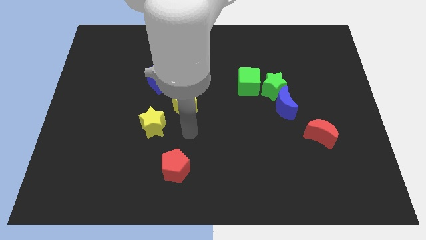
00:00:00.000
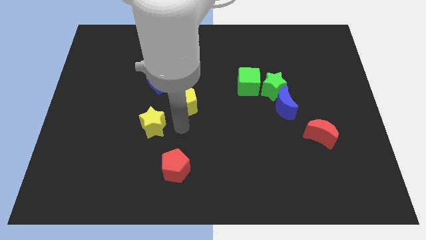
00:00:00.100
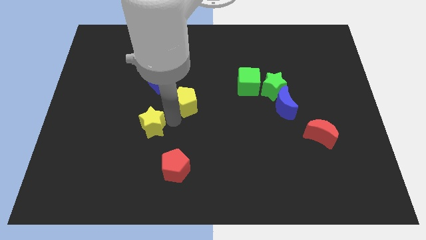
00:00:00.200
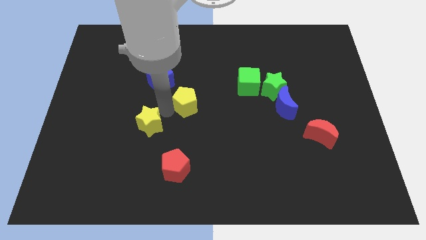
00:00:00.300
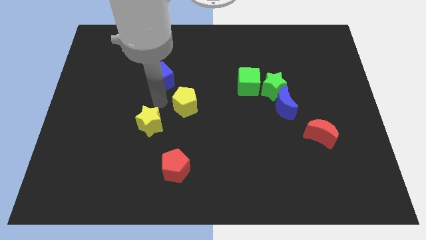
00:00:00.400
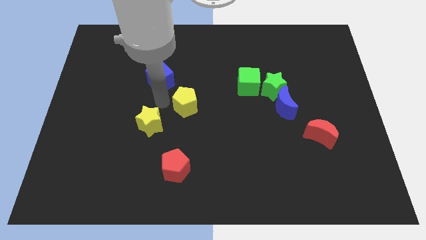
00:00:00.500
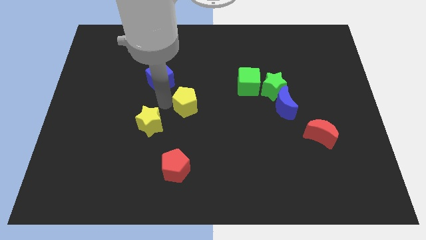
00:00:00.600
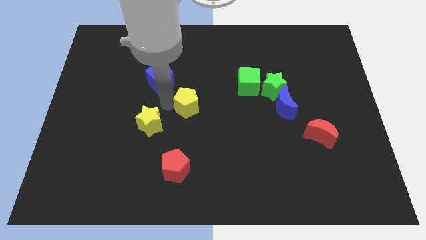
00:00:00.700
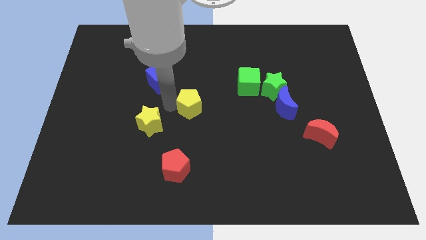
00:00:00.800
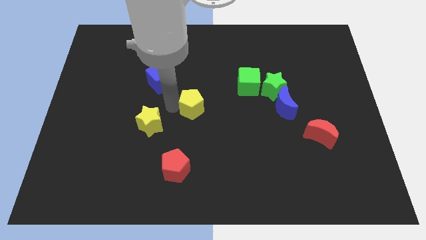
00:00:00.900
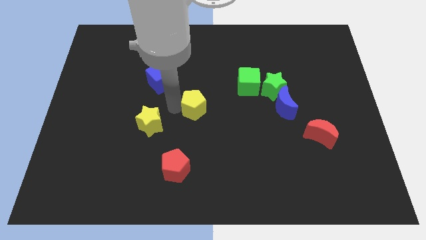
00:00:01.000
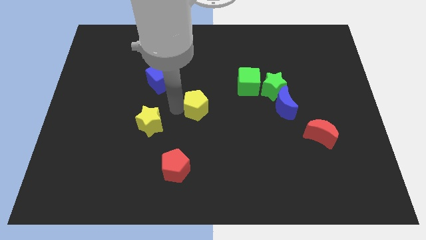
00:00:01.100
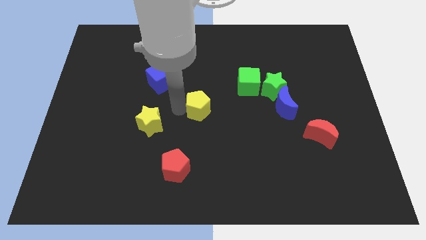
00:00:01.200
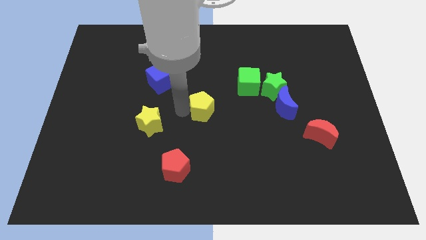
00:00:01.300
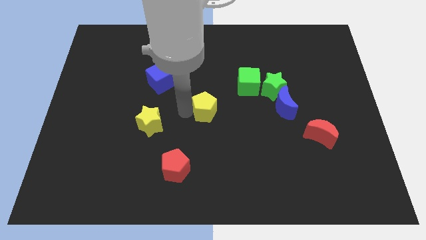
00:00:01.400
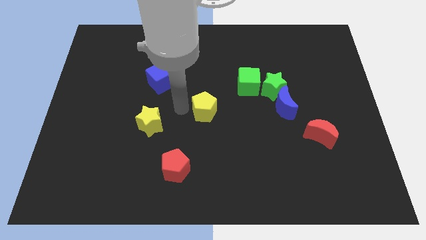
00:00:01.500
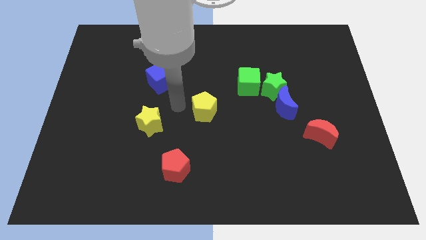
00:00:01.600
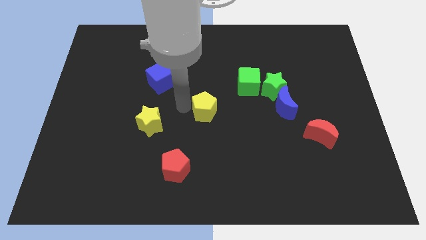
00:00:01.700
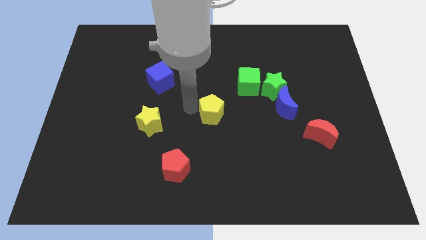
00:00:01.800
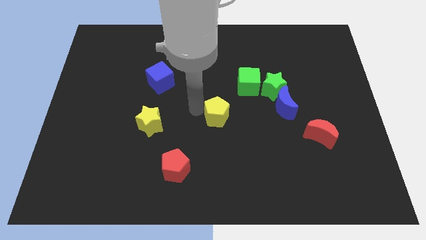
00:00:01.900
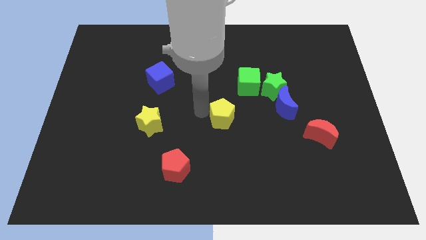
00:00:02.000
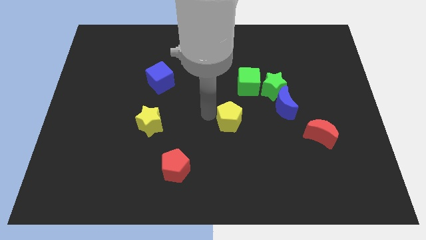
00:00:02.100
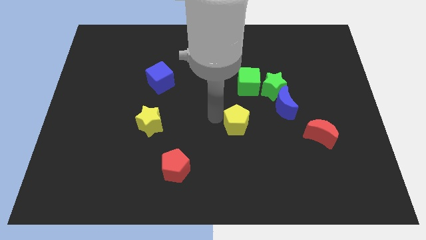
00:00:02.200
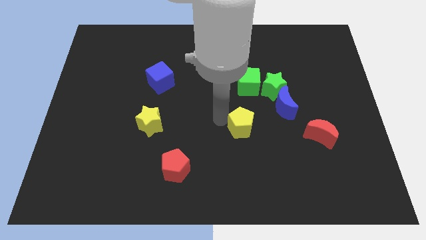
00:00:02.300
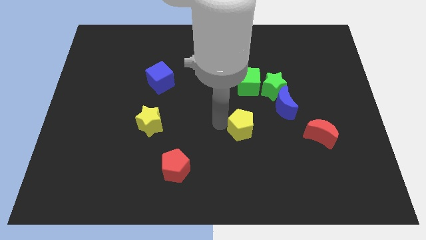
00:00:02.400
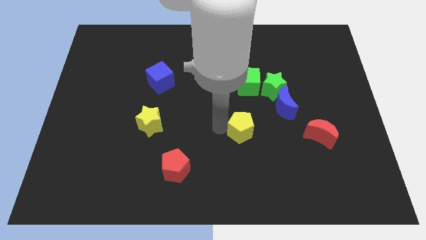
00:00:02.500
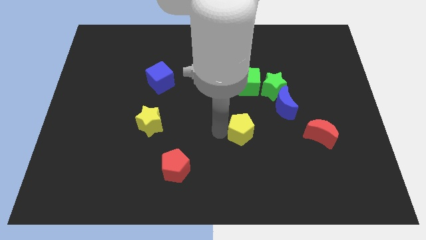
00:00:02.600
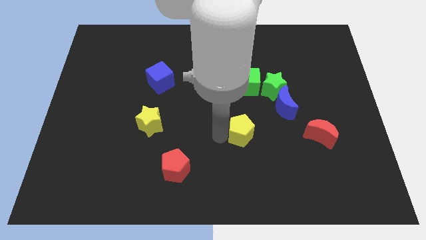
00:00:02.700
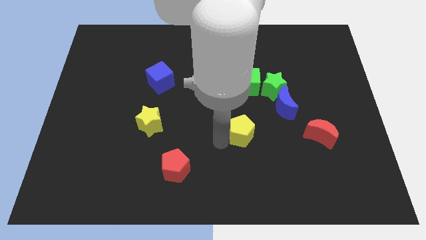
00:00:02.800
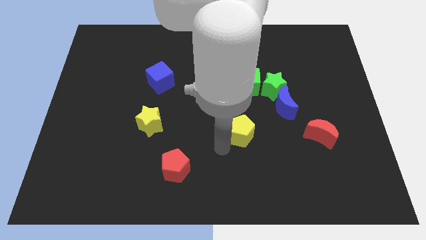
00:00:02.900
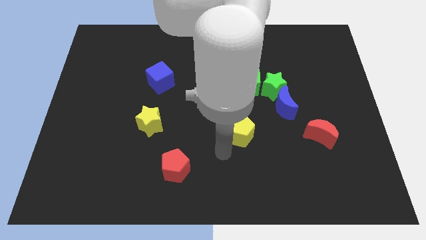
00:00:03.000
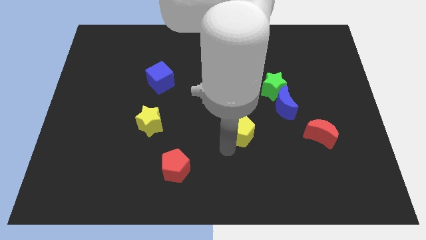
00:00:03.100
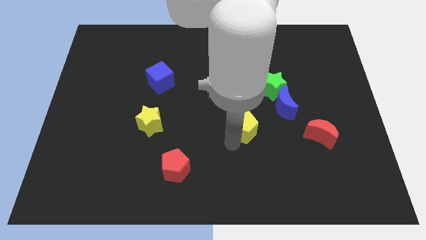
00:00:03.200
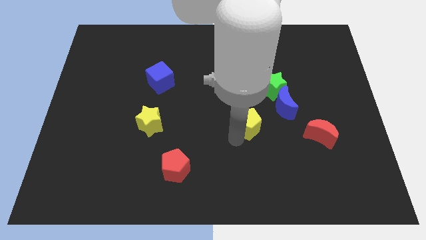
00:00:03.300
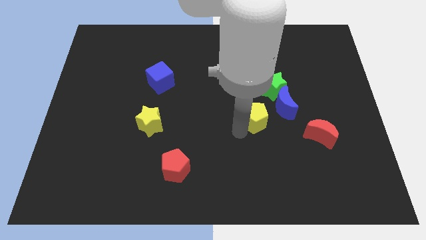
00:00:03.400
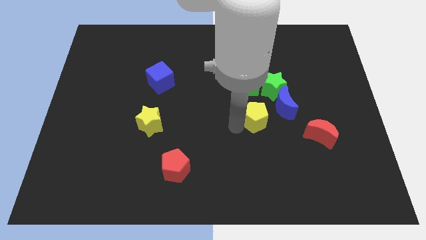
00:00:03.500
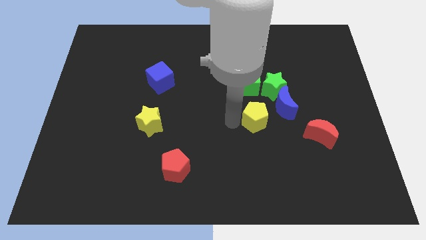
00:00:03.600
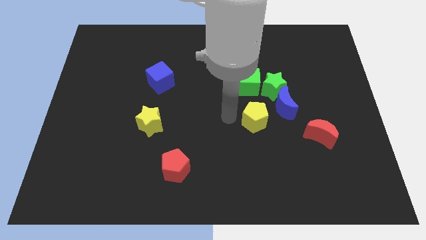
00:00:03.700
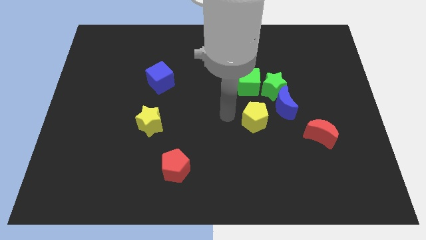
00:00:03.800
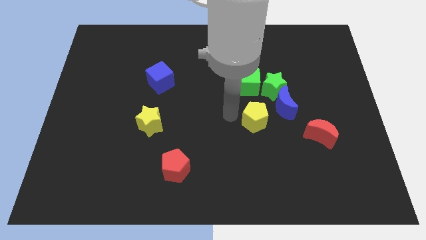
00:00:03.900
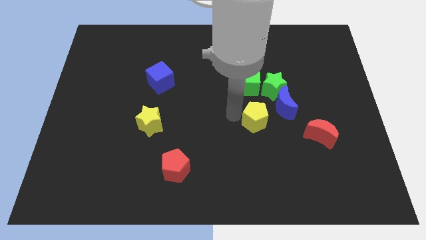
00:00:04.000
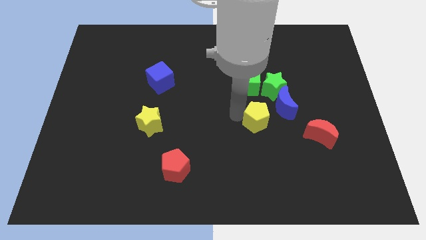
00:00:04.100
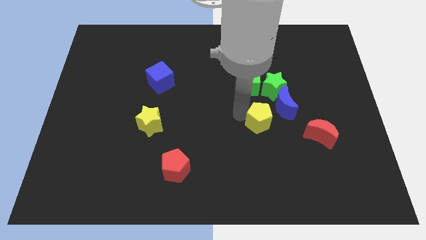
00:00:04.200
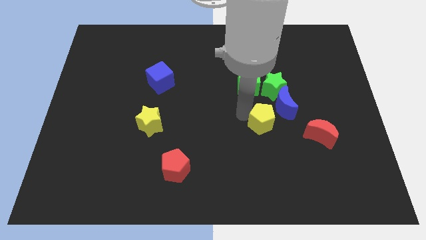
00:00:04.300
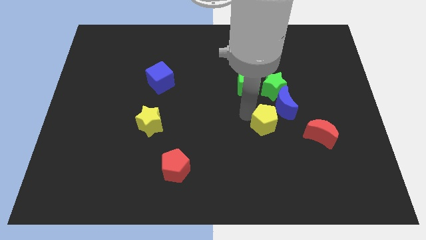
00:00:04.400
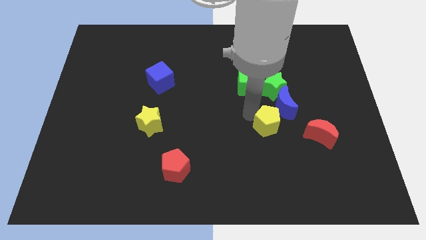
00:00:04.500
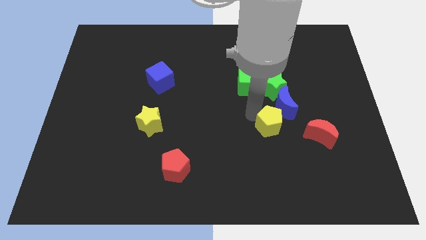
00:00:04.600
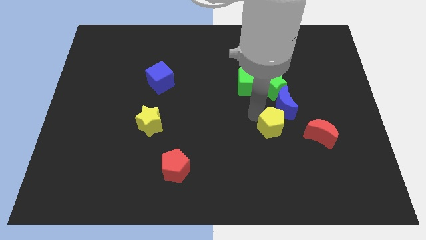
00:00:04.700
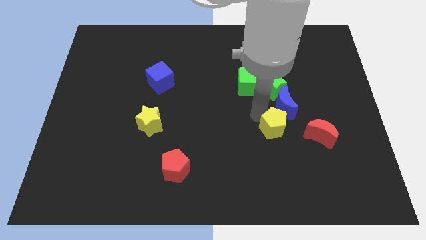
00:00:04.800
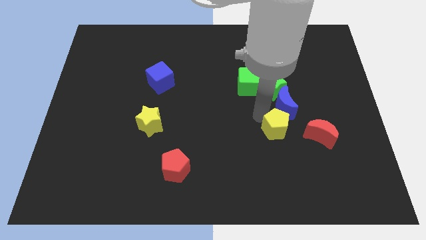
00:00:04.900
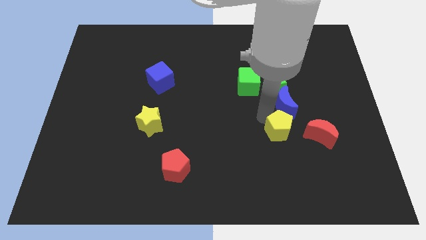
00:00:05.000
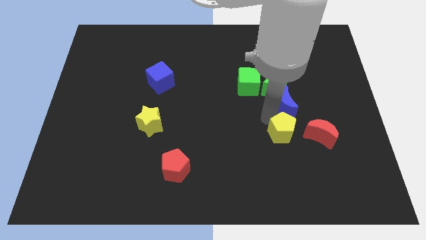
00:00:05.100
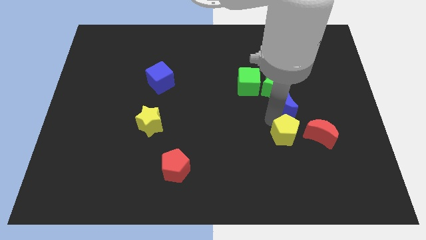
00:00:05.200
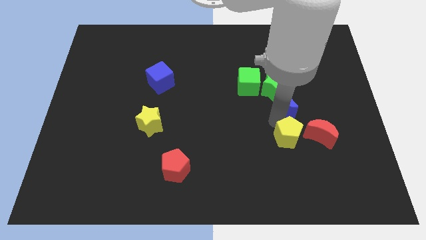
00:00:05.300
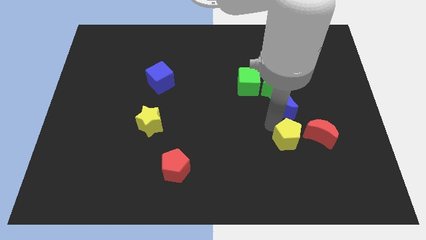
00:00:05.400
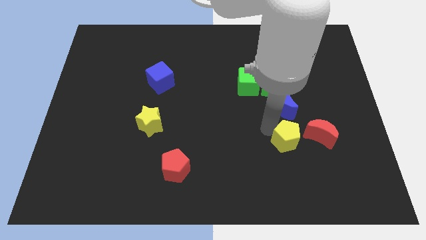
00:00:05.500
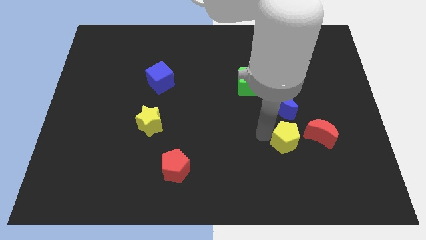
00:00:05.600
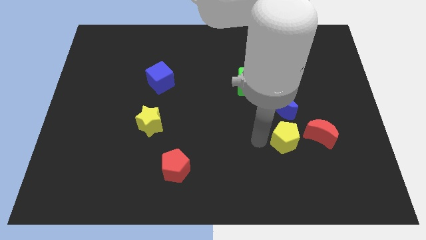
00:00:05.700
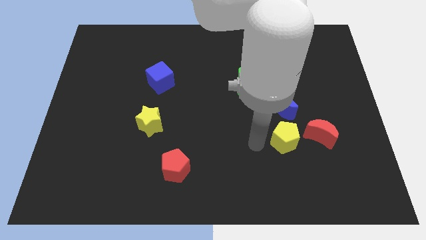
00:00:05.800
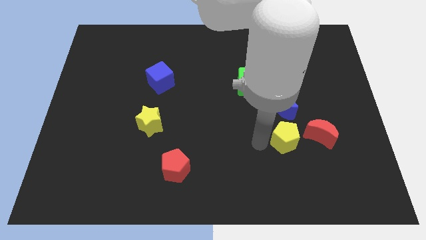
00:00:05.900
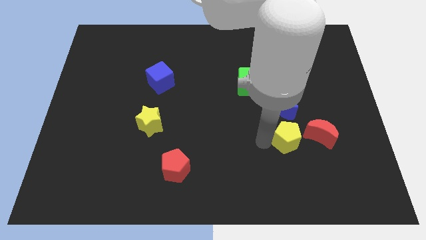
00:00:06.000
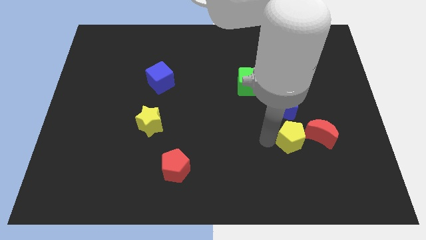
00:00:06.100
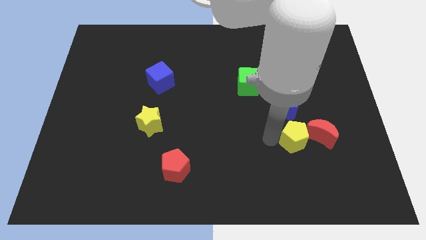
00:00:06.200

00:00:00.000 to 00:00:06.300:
slide the yellow pentagon to the red moon

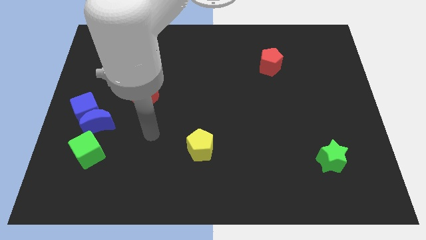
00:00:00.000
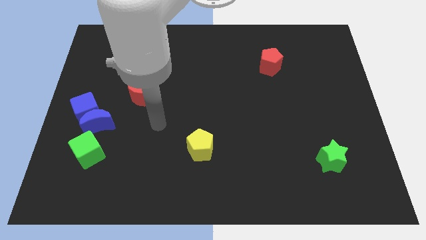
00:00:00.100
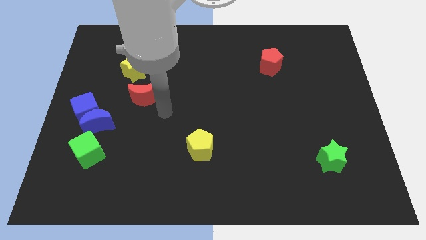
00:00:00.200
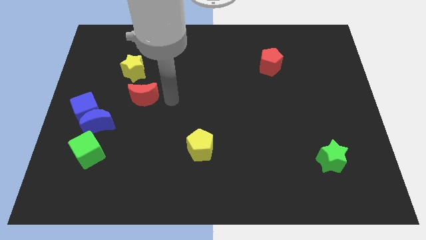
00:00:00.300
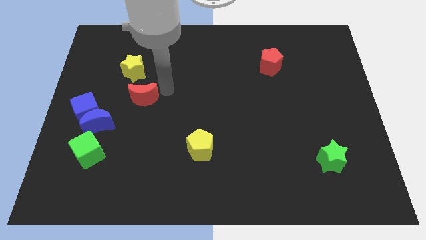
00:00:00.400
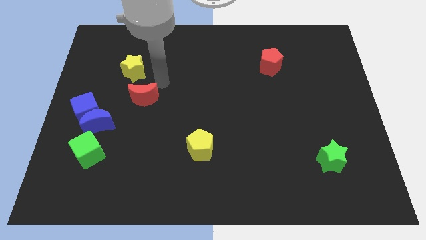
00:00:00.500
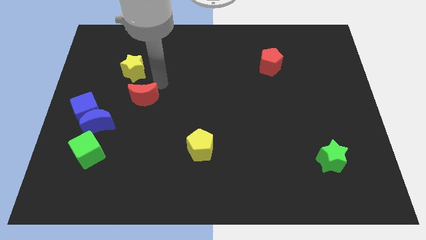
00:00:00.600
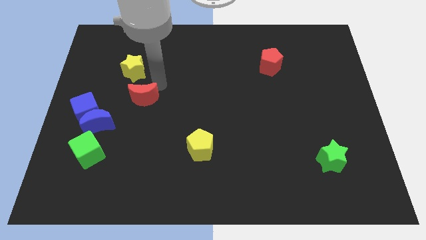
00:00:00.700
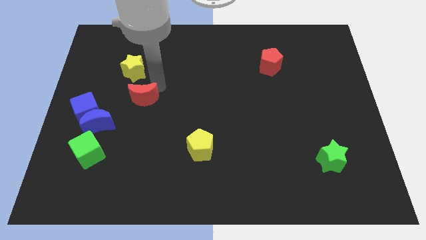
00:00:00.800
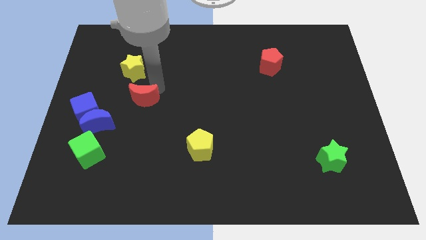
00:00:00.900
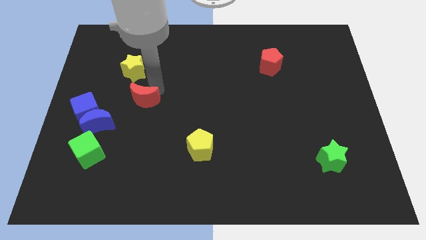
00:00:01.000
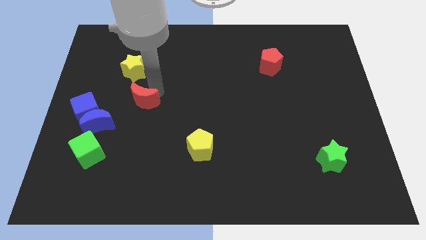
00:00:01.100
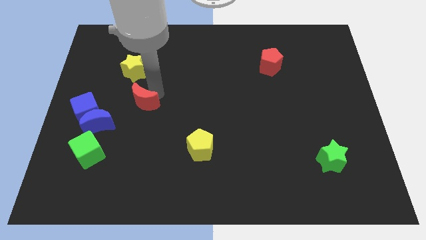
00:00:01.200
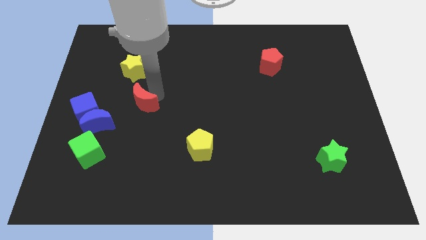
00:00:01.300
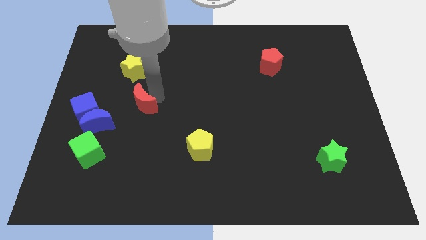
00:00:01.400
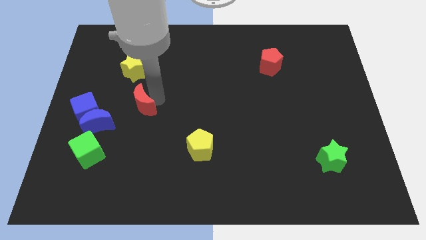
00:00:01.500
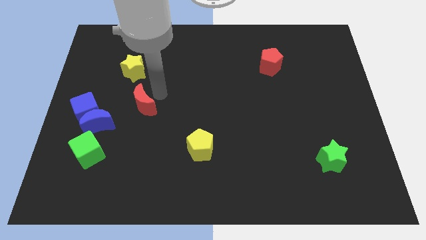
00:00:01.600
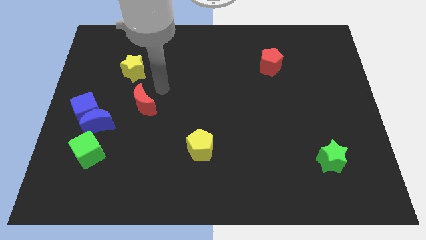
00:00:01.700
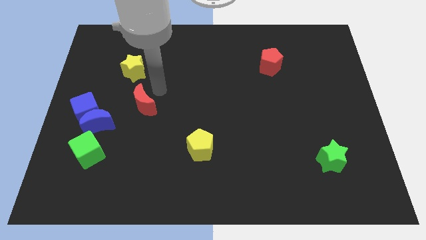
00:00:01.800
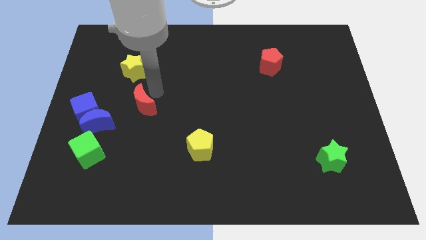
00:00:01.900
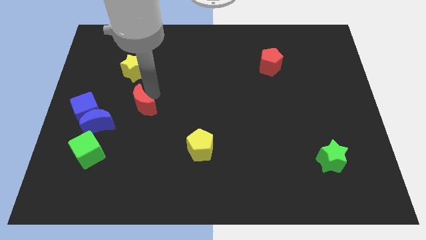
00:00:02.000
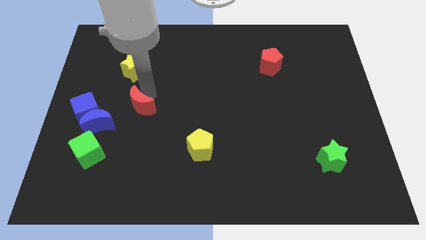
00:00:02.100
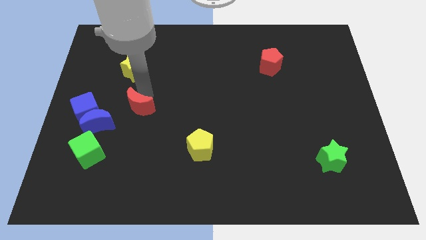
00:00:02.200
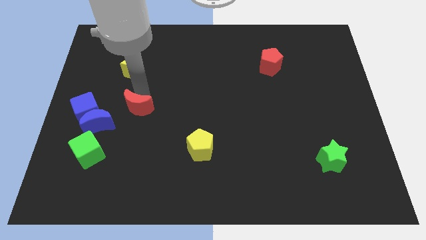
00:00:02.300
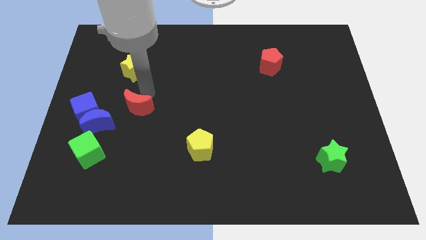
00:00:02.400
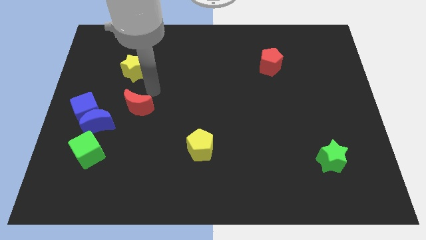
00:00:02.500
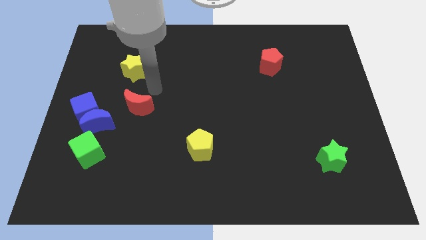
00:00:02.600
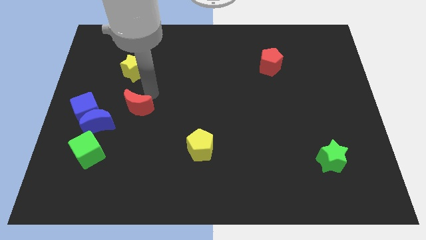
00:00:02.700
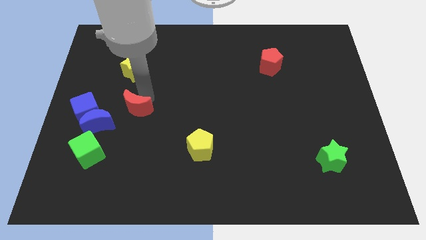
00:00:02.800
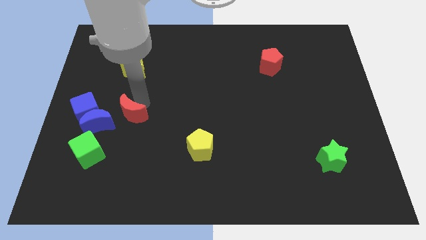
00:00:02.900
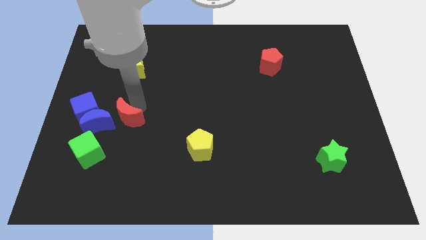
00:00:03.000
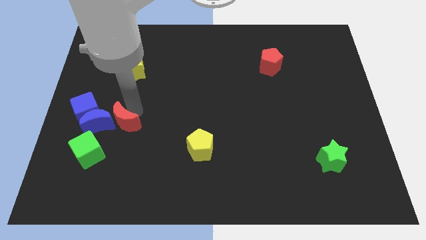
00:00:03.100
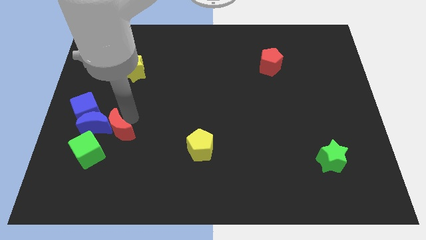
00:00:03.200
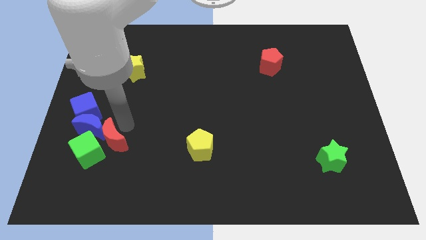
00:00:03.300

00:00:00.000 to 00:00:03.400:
push the red moon towards the green cube
